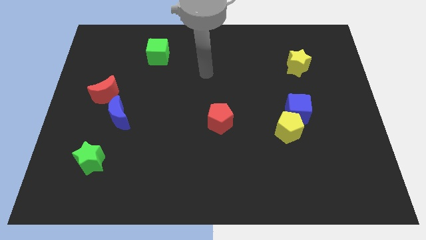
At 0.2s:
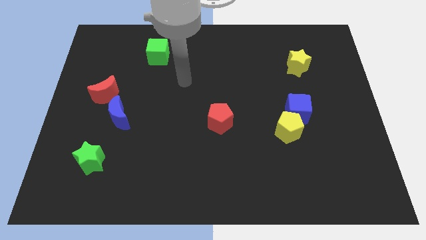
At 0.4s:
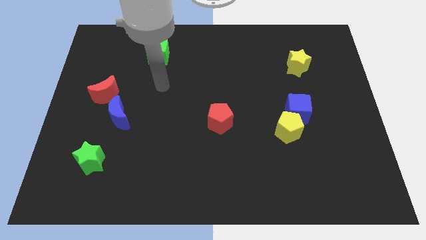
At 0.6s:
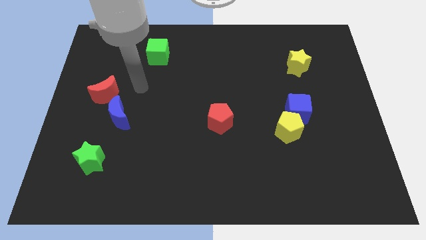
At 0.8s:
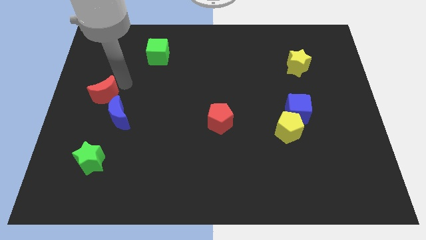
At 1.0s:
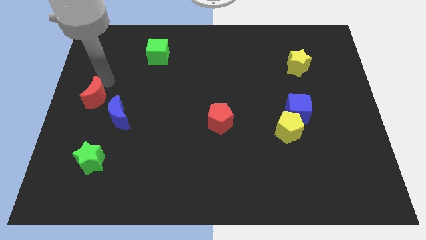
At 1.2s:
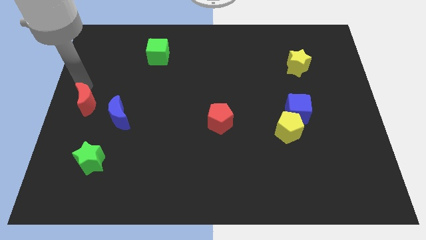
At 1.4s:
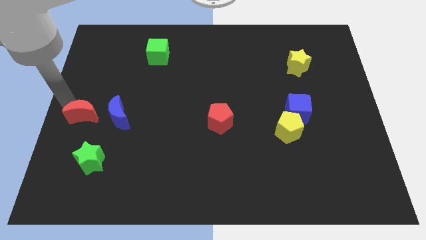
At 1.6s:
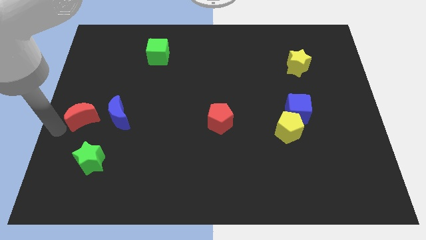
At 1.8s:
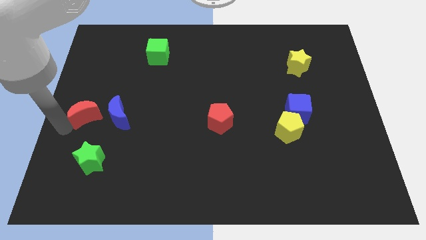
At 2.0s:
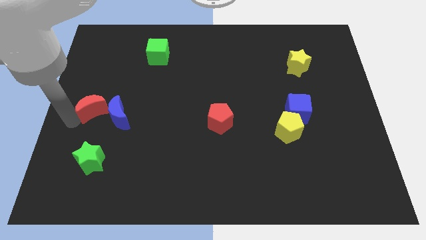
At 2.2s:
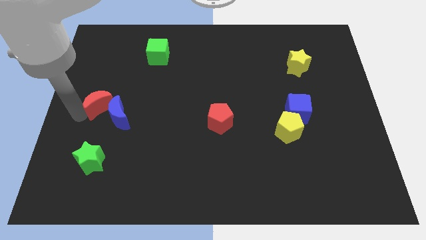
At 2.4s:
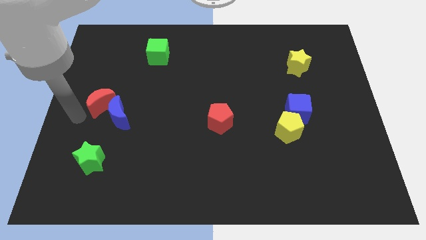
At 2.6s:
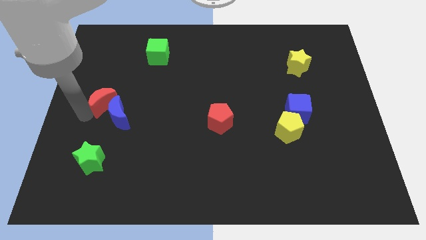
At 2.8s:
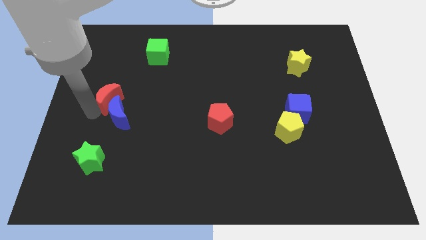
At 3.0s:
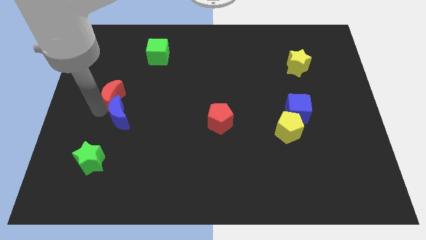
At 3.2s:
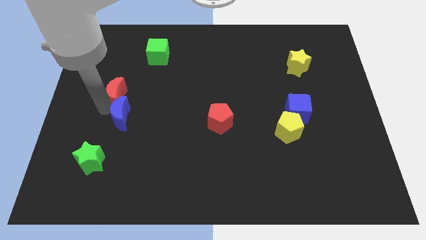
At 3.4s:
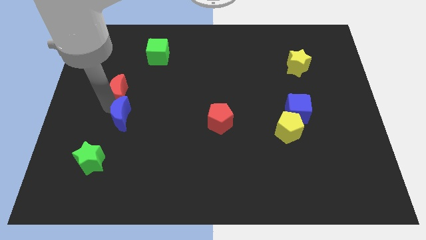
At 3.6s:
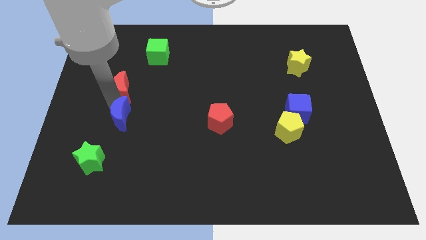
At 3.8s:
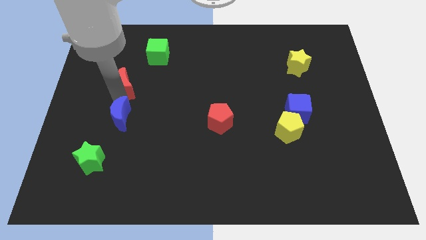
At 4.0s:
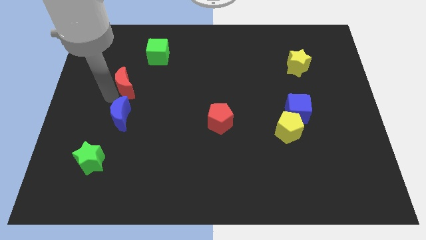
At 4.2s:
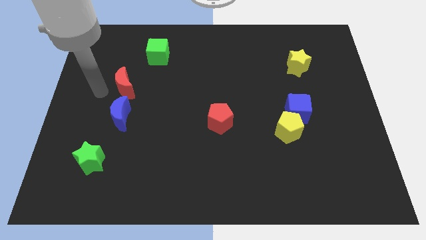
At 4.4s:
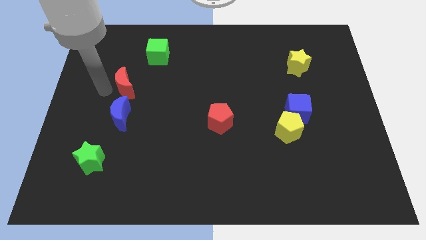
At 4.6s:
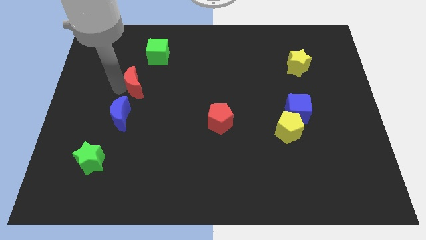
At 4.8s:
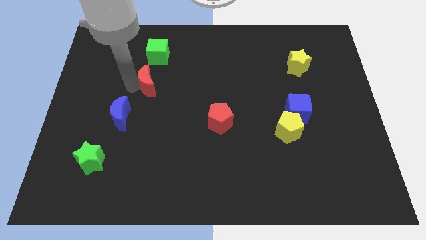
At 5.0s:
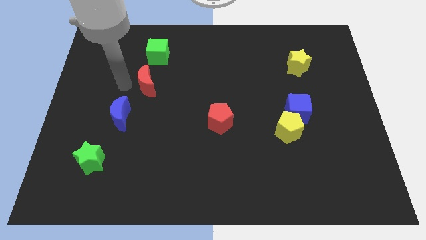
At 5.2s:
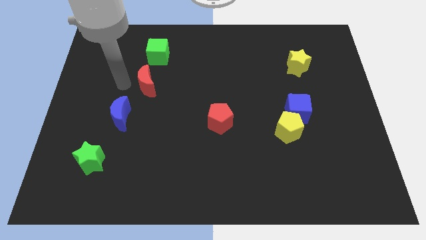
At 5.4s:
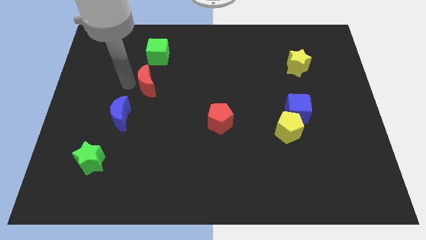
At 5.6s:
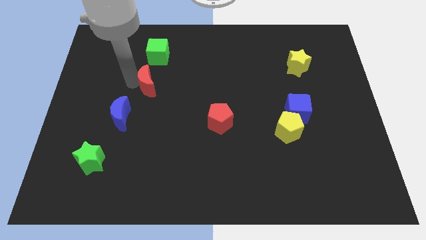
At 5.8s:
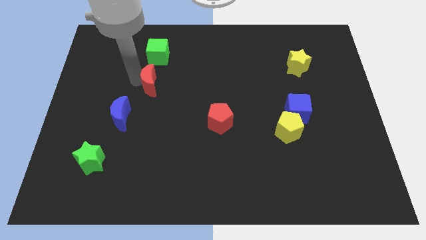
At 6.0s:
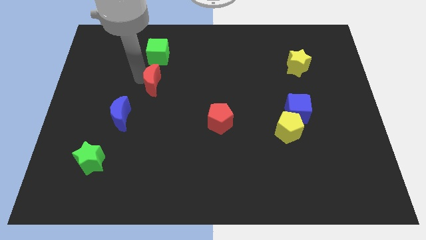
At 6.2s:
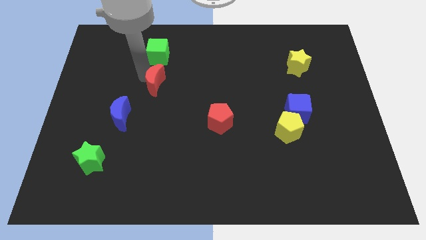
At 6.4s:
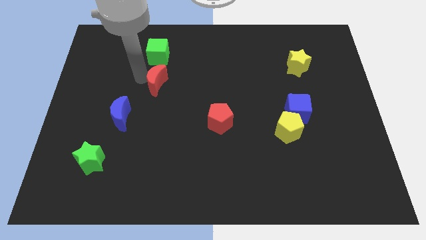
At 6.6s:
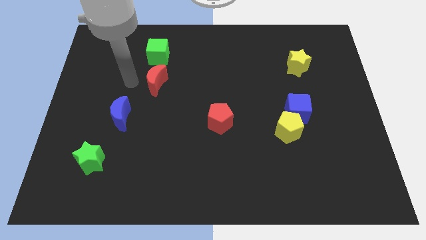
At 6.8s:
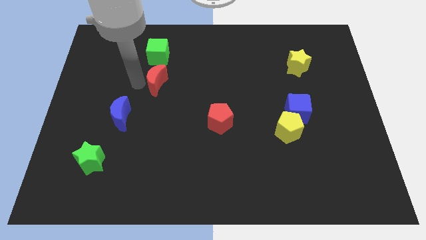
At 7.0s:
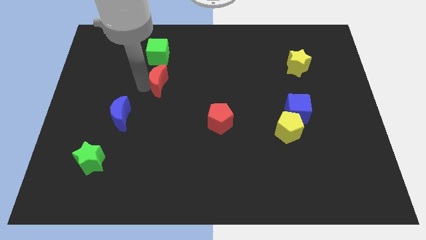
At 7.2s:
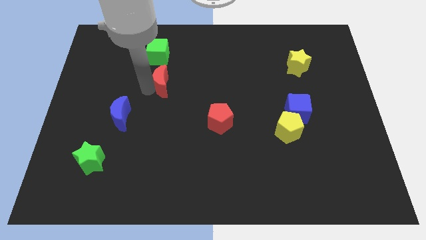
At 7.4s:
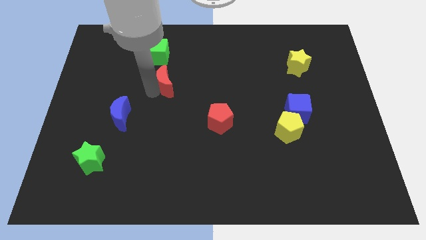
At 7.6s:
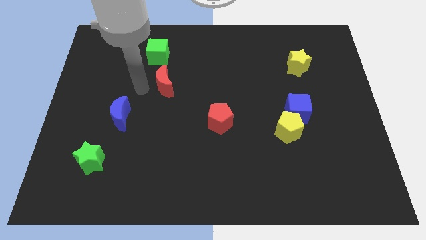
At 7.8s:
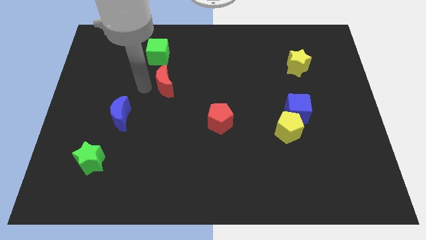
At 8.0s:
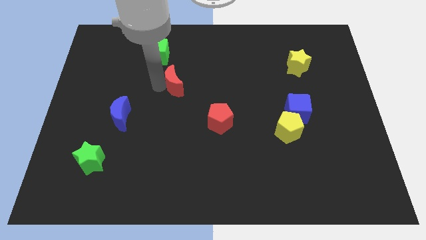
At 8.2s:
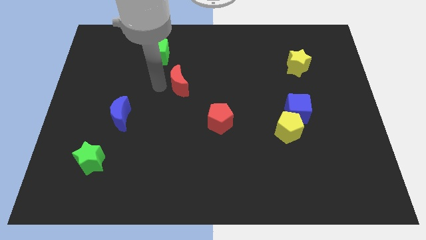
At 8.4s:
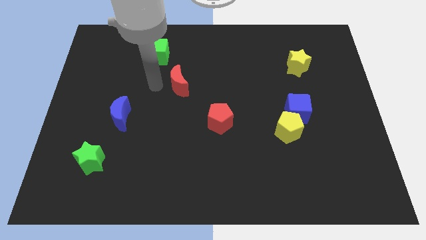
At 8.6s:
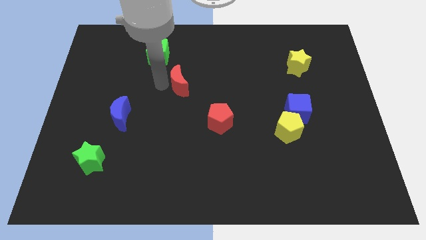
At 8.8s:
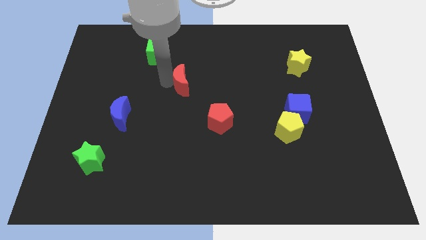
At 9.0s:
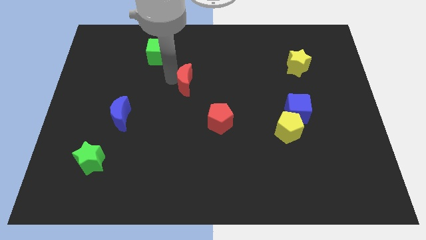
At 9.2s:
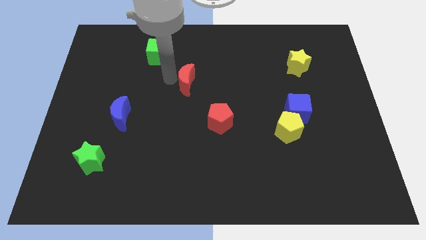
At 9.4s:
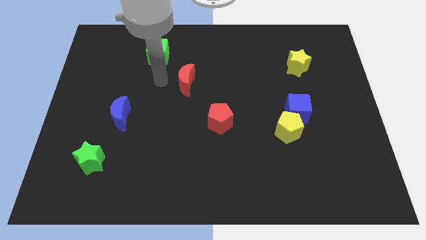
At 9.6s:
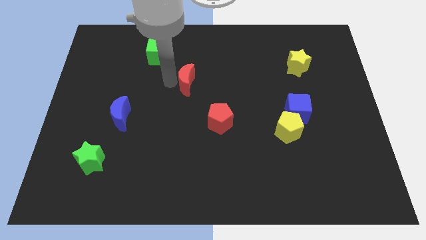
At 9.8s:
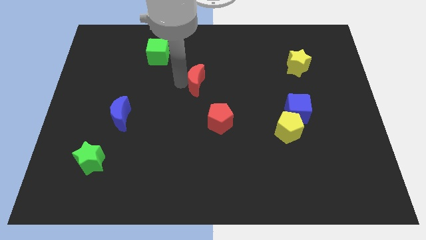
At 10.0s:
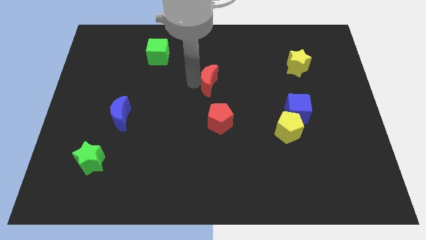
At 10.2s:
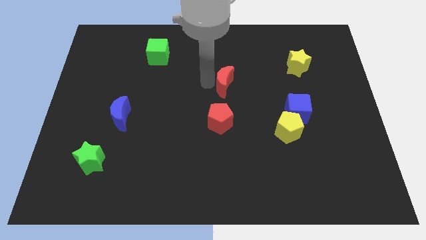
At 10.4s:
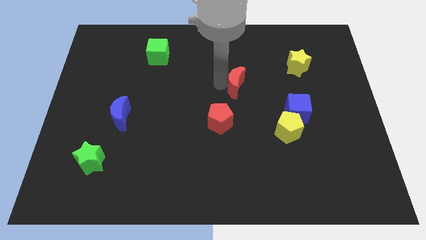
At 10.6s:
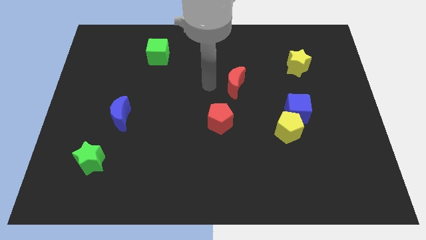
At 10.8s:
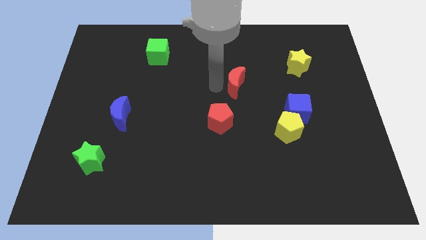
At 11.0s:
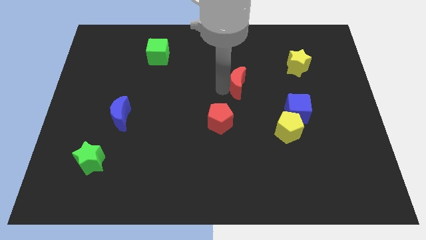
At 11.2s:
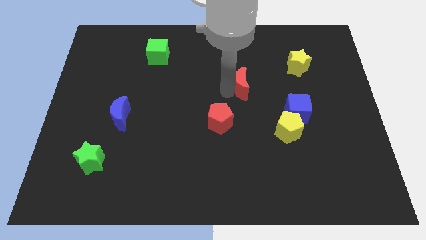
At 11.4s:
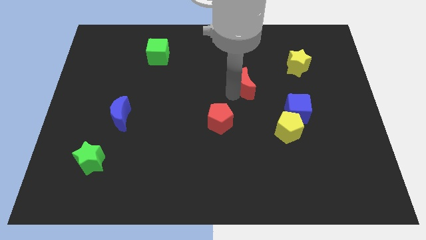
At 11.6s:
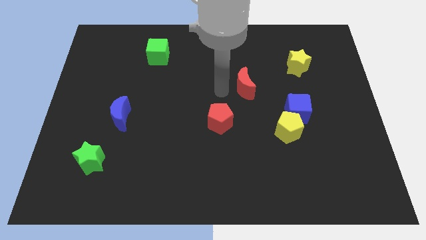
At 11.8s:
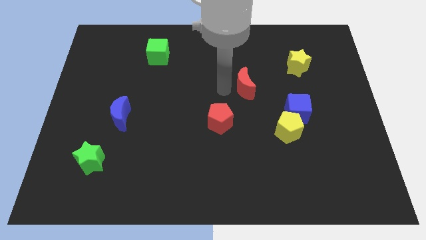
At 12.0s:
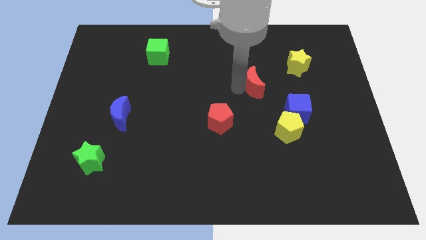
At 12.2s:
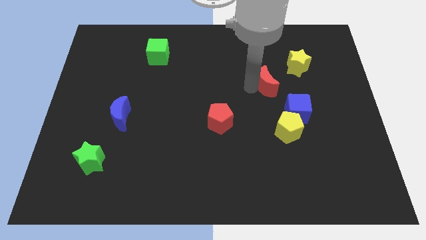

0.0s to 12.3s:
push the red moon diagonally down and to the left of the yellow star

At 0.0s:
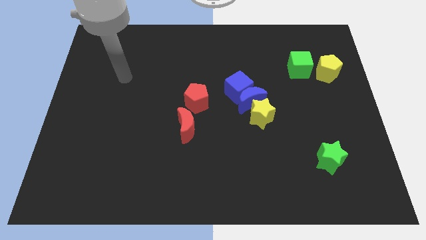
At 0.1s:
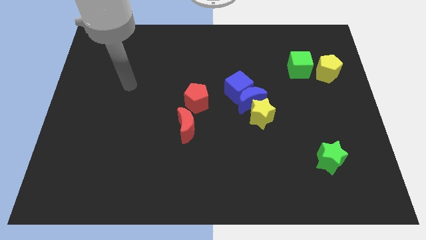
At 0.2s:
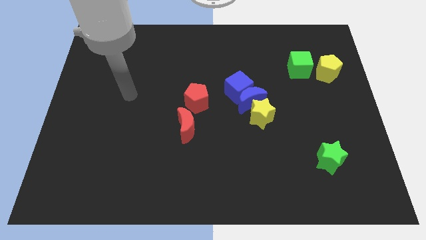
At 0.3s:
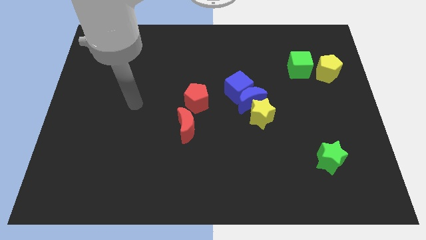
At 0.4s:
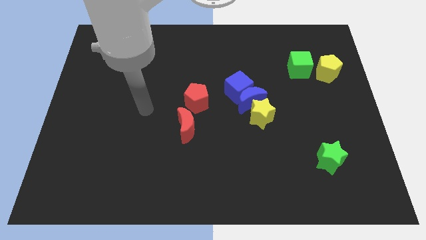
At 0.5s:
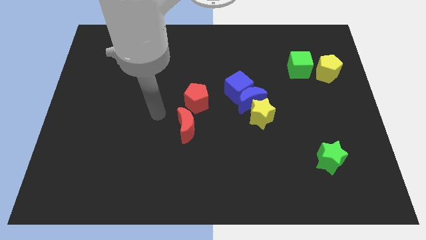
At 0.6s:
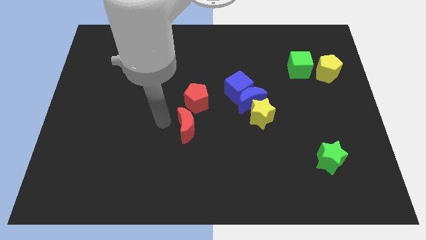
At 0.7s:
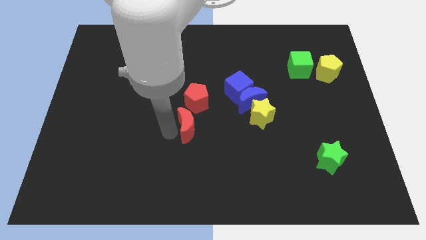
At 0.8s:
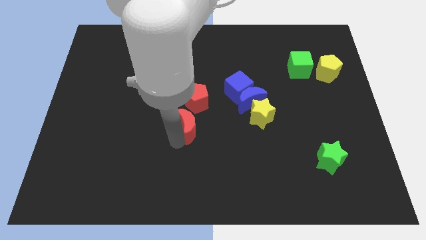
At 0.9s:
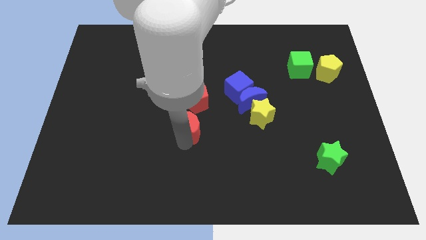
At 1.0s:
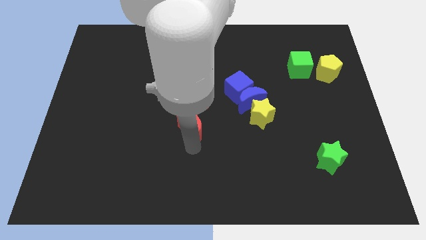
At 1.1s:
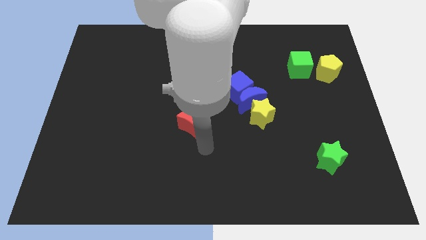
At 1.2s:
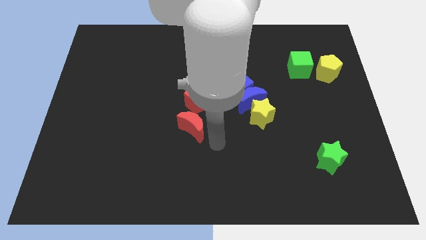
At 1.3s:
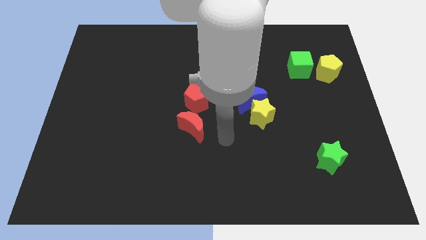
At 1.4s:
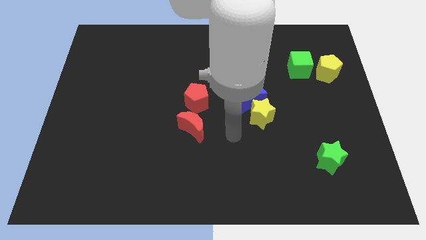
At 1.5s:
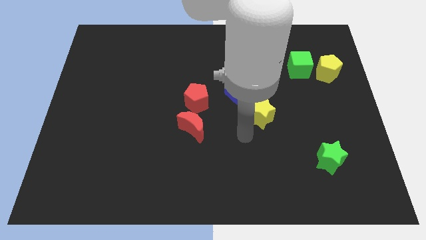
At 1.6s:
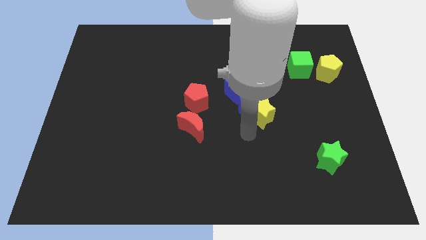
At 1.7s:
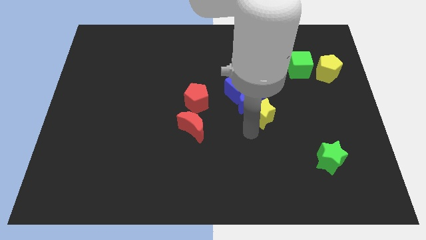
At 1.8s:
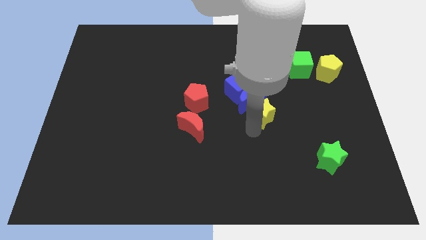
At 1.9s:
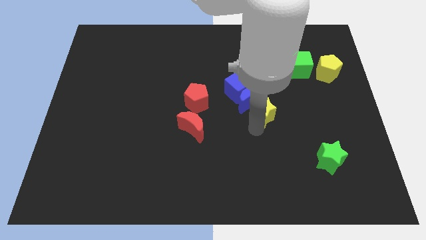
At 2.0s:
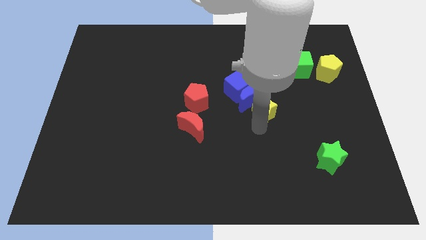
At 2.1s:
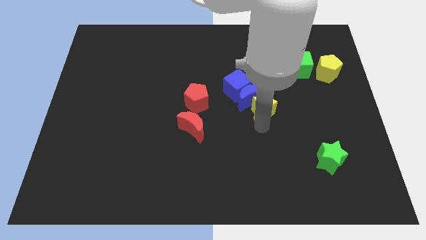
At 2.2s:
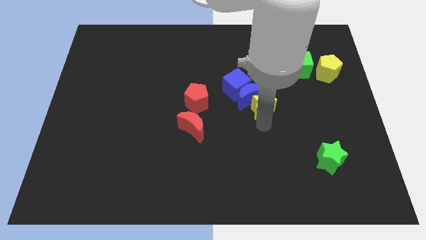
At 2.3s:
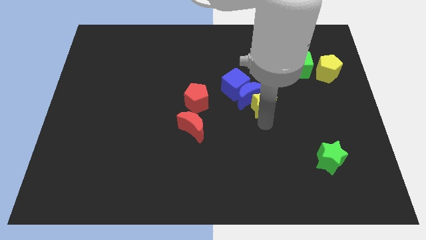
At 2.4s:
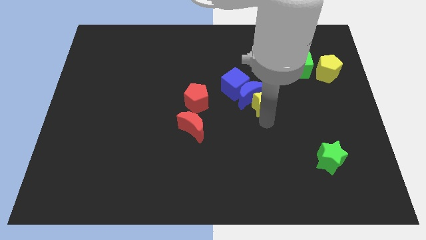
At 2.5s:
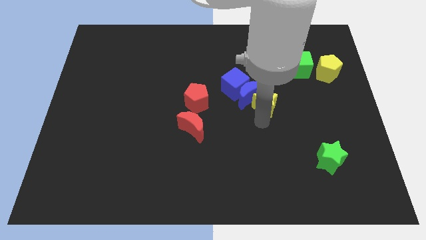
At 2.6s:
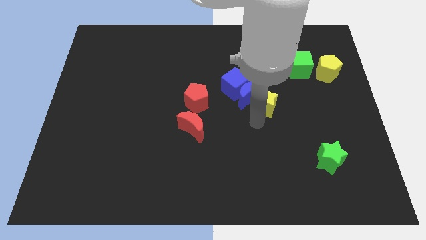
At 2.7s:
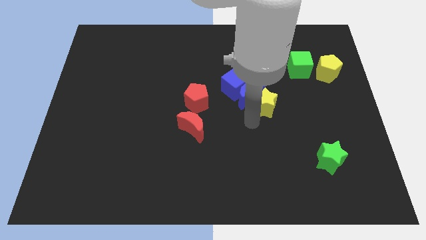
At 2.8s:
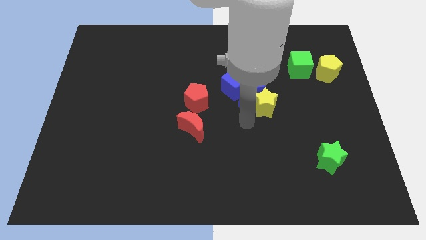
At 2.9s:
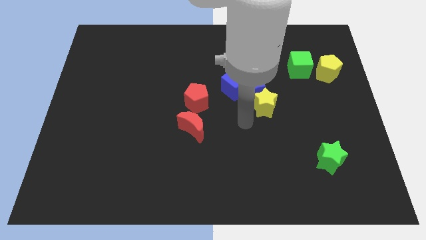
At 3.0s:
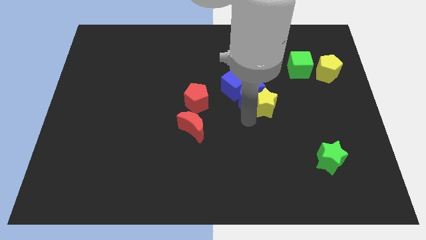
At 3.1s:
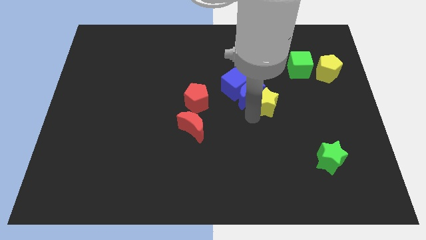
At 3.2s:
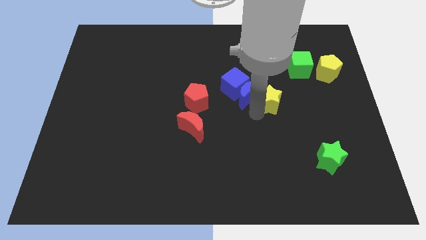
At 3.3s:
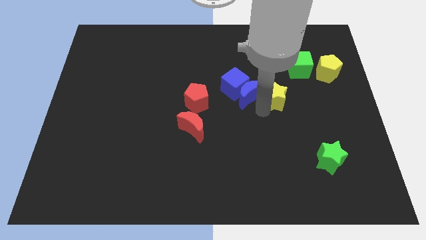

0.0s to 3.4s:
put the yellow star right of the blue cube
